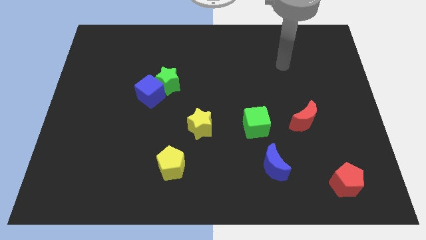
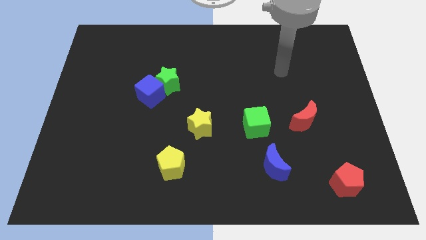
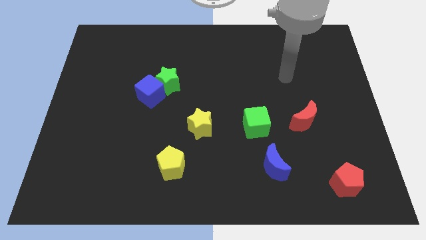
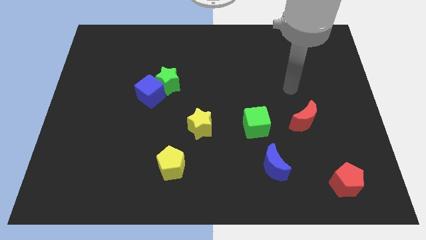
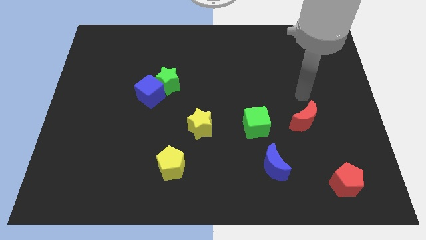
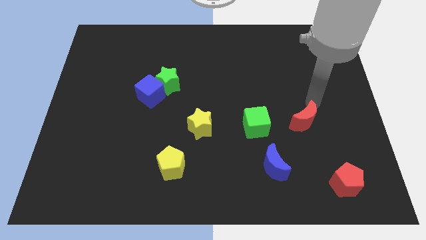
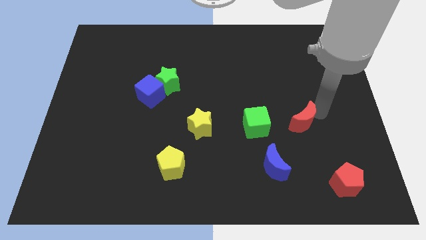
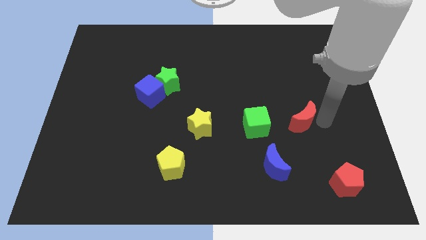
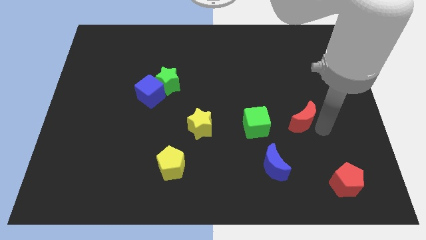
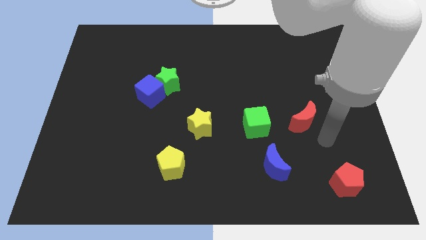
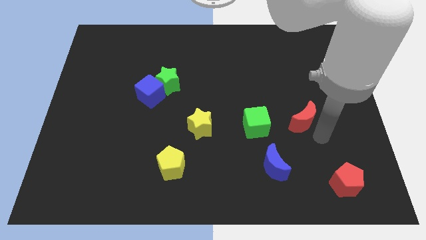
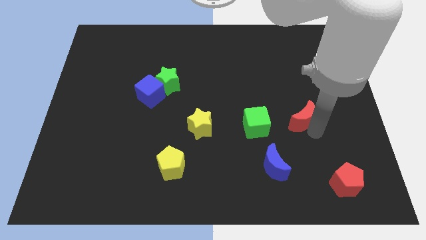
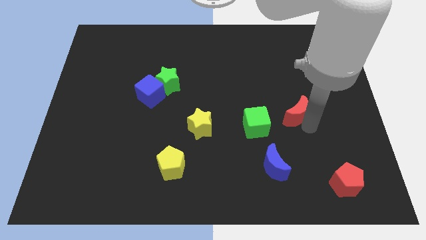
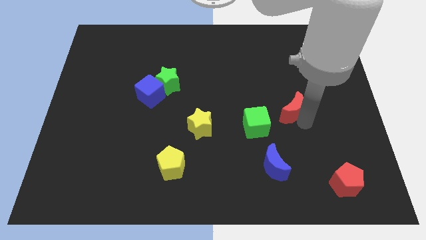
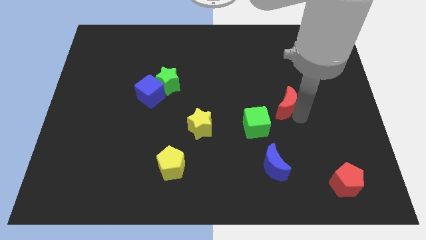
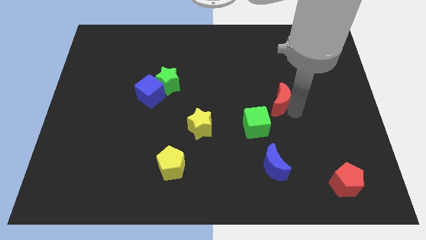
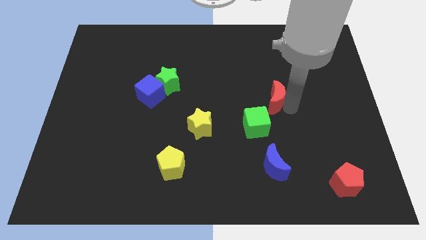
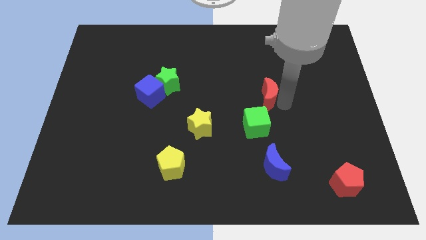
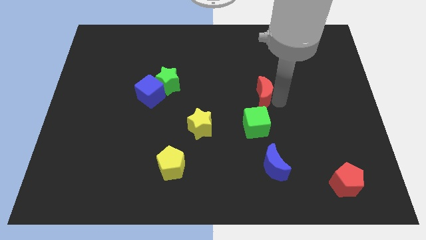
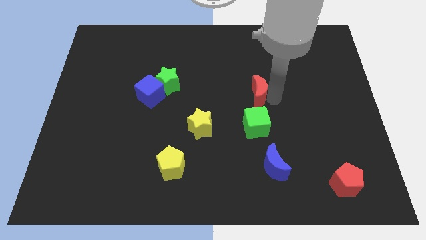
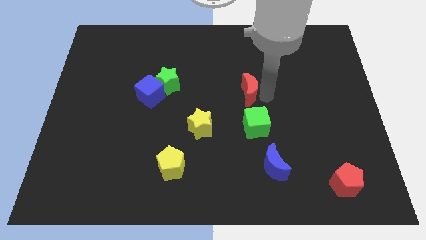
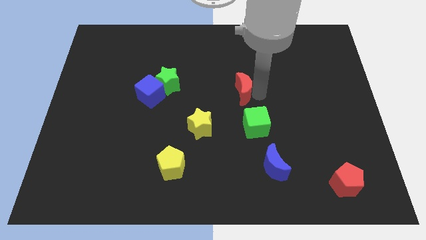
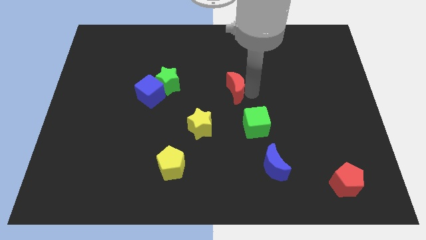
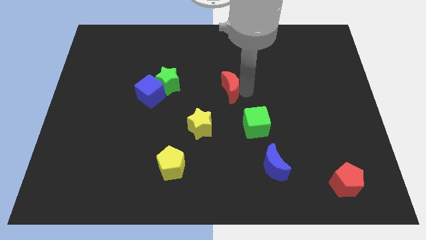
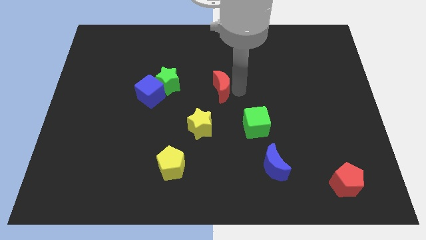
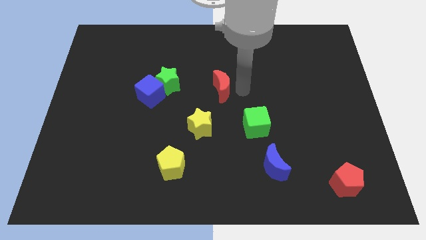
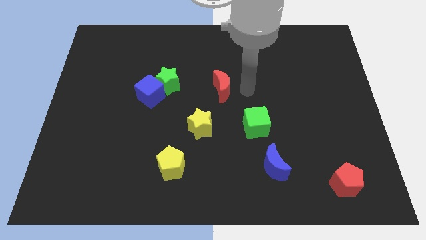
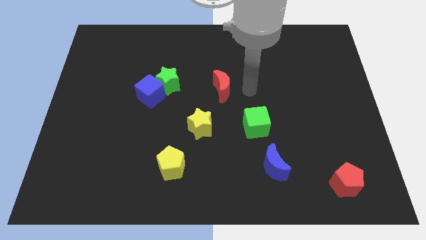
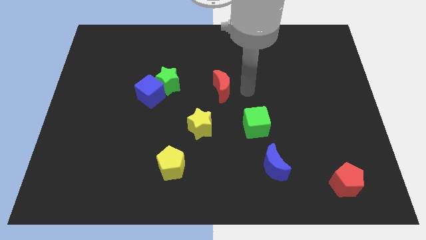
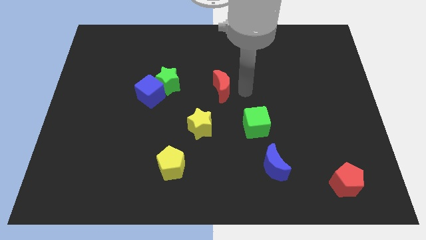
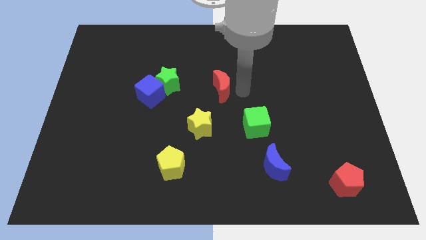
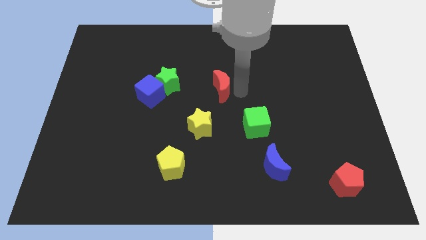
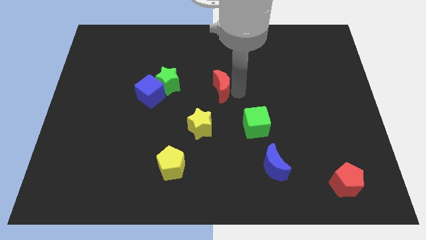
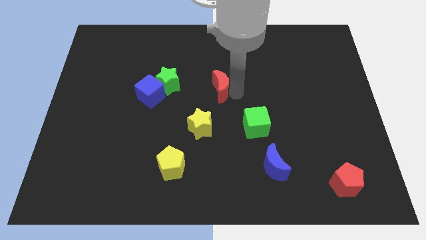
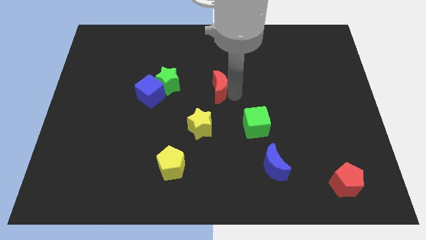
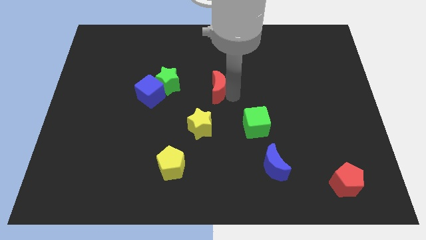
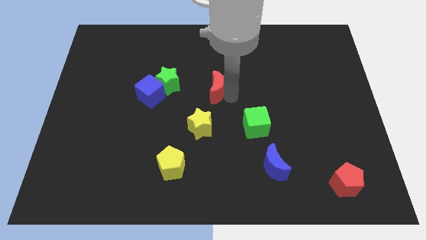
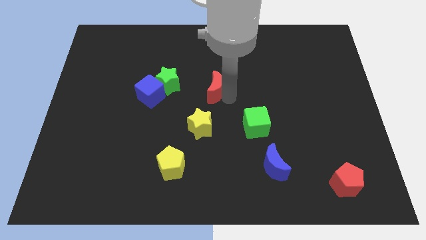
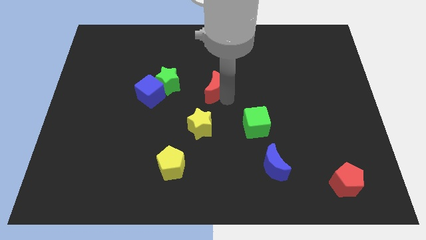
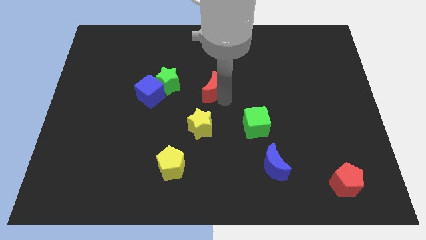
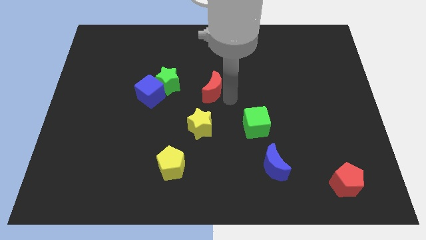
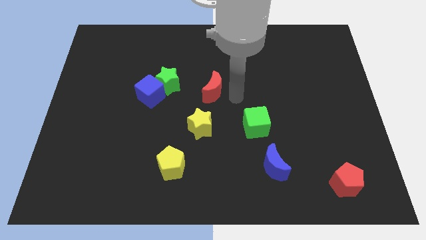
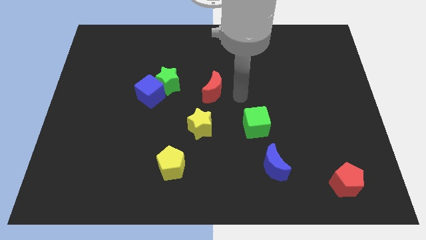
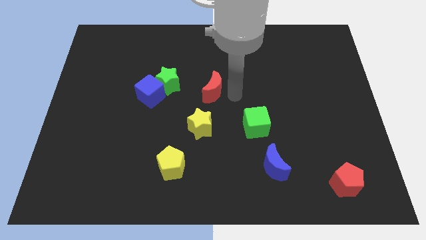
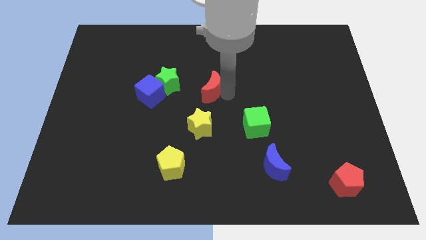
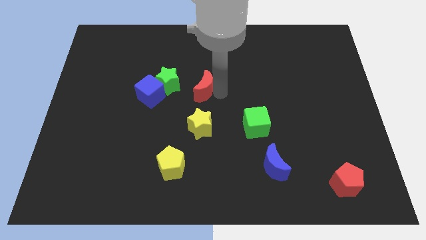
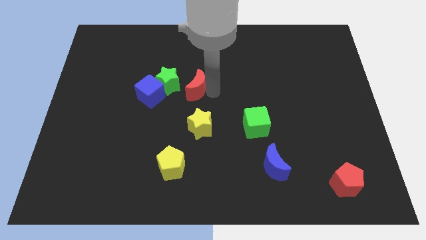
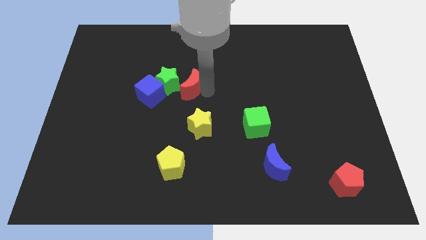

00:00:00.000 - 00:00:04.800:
move the red moon towards the green star
